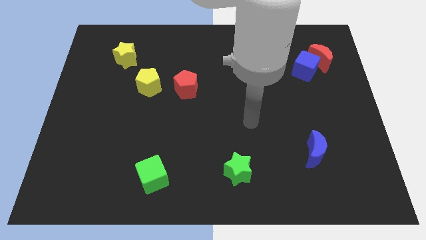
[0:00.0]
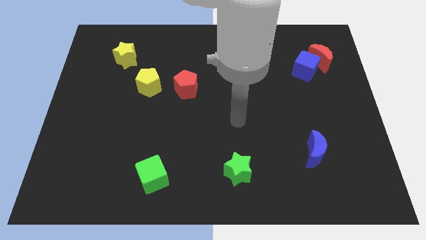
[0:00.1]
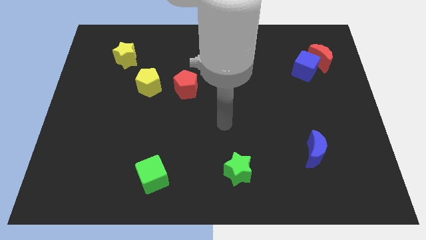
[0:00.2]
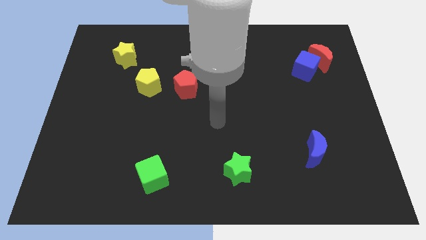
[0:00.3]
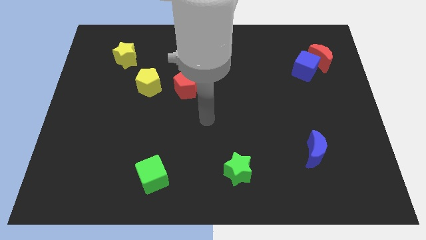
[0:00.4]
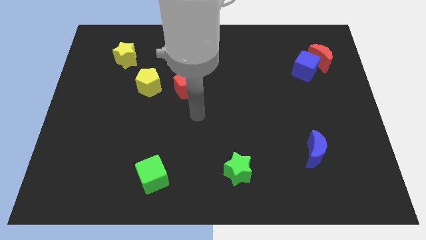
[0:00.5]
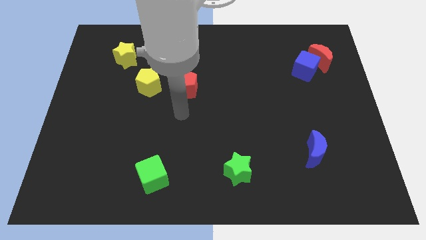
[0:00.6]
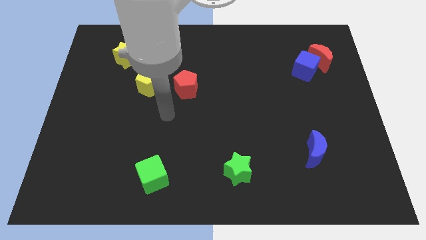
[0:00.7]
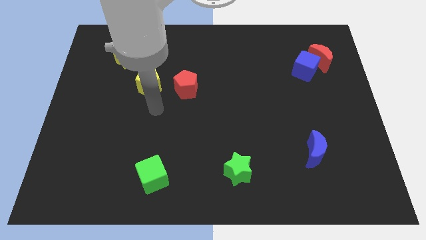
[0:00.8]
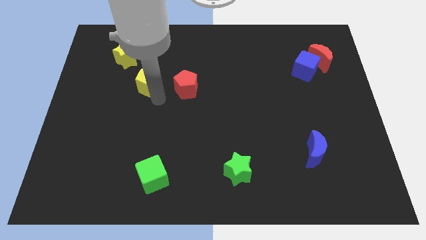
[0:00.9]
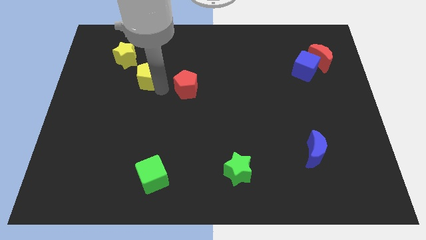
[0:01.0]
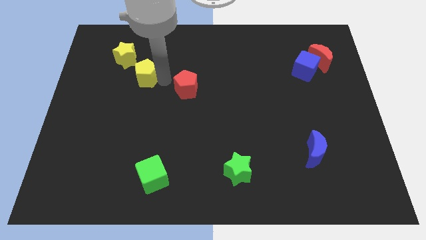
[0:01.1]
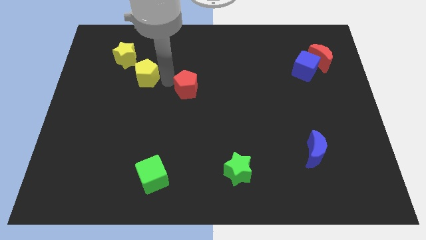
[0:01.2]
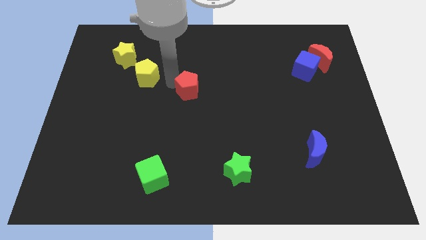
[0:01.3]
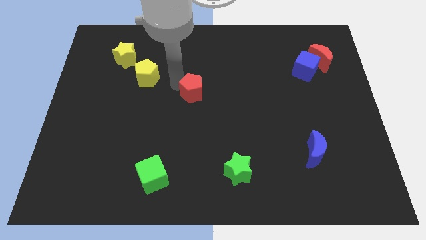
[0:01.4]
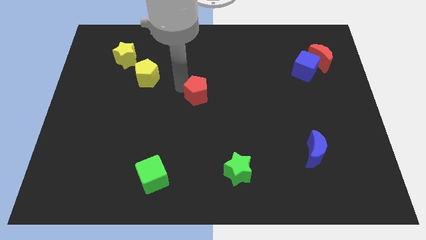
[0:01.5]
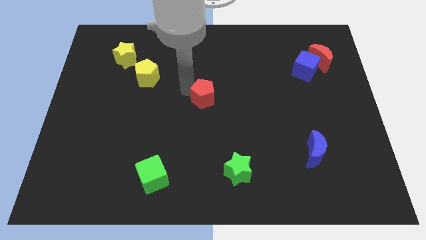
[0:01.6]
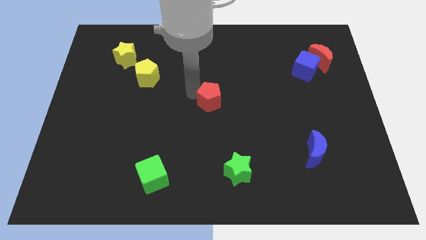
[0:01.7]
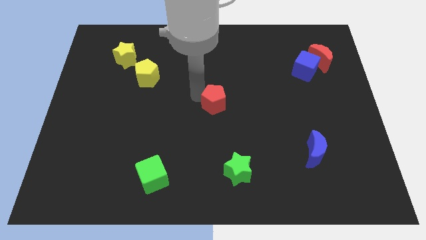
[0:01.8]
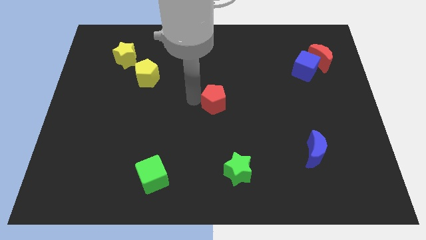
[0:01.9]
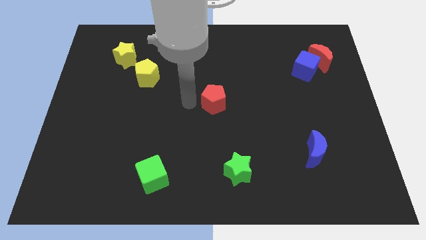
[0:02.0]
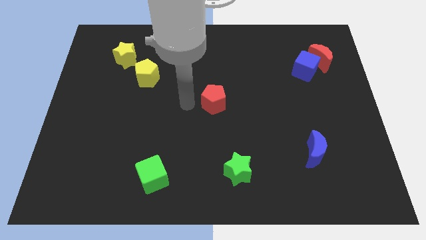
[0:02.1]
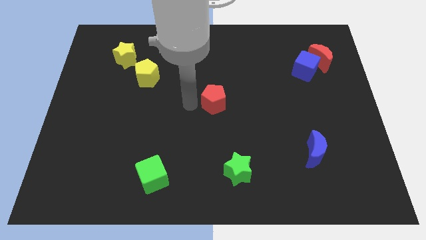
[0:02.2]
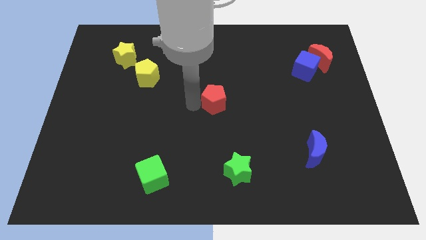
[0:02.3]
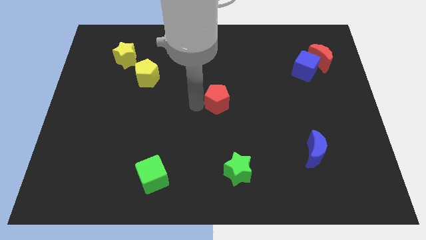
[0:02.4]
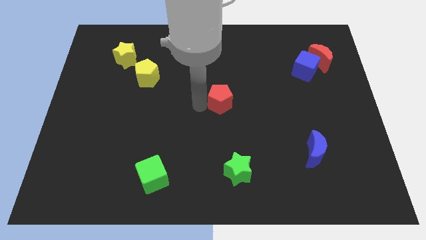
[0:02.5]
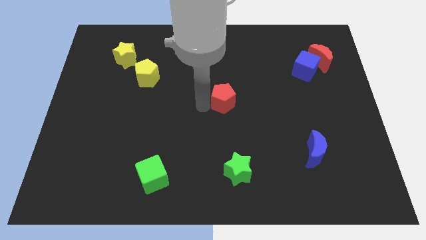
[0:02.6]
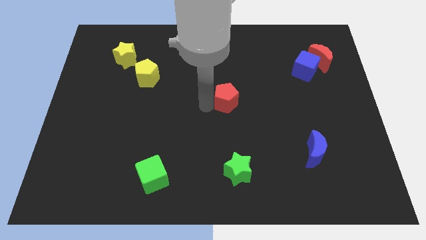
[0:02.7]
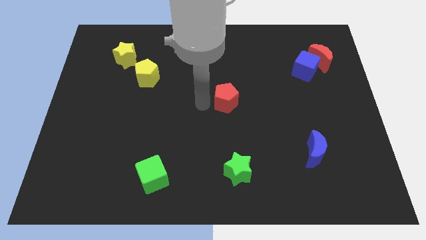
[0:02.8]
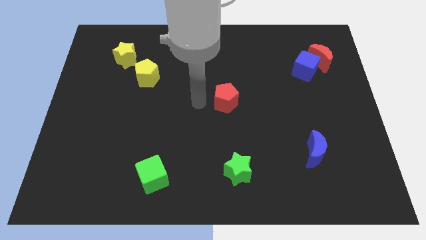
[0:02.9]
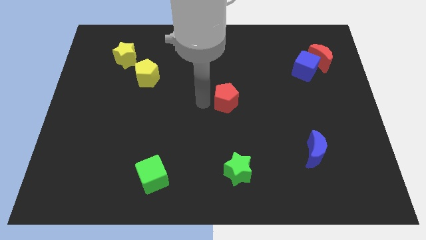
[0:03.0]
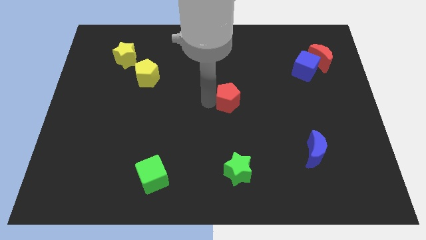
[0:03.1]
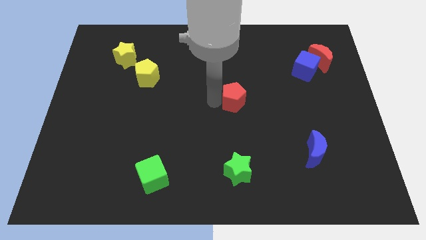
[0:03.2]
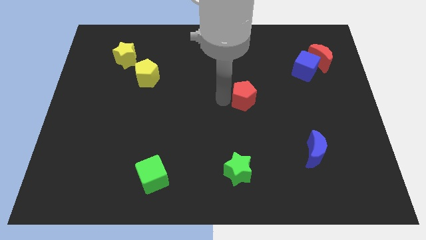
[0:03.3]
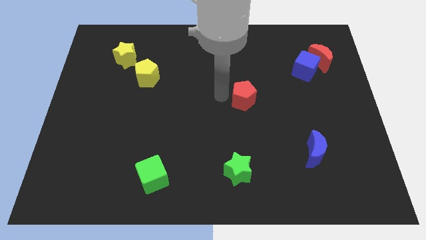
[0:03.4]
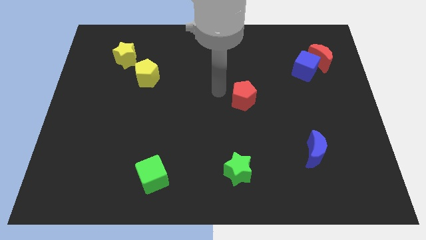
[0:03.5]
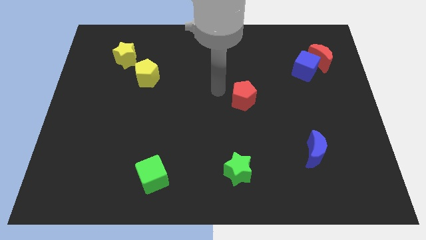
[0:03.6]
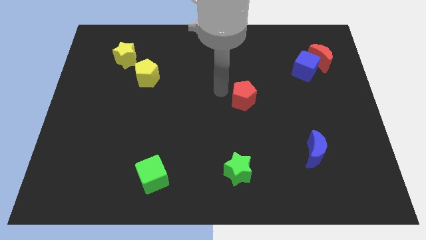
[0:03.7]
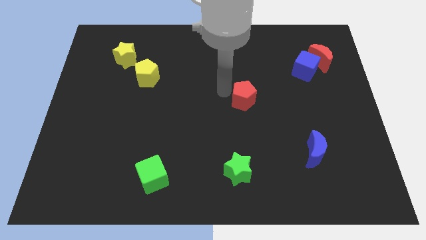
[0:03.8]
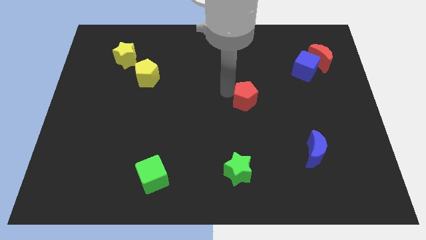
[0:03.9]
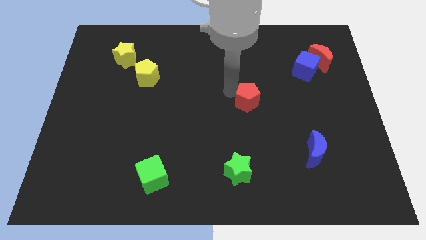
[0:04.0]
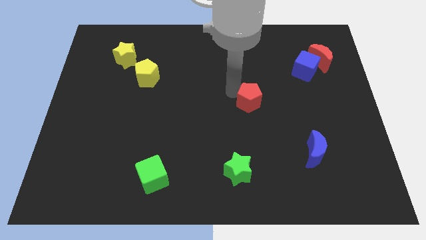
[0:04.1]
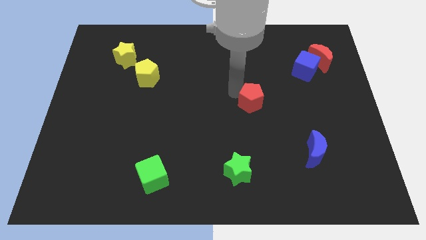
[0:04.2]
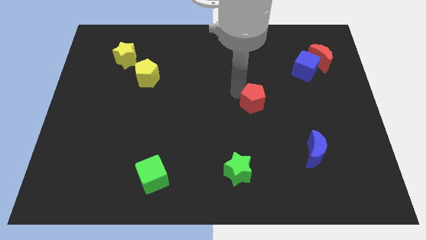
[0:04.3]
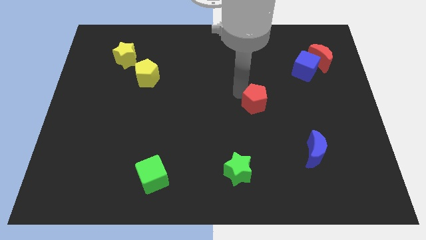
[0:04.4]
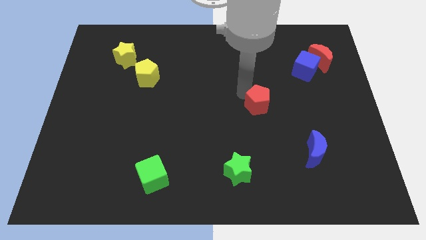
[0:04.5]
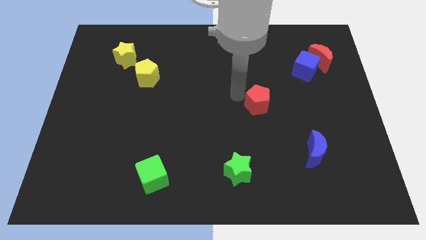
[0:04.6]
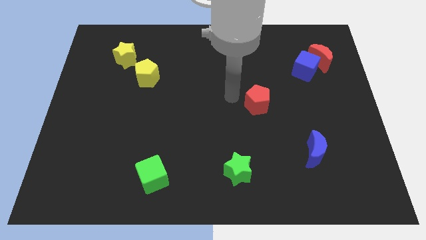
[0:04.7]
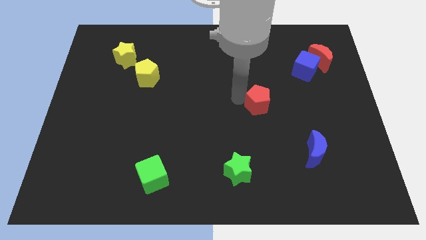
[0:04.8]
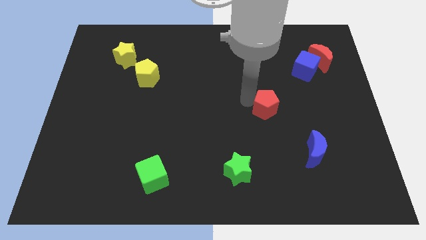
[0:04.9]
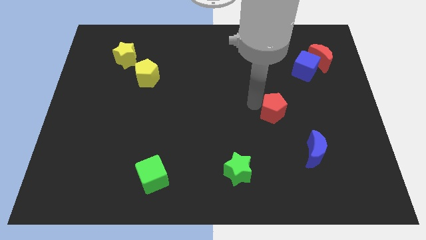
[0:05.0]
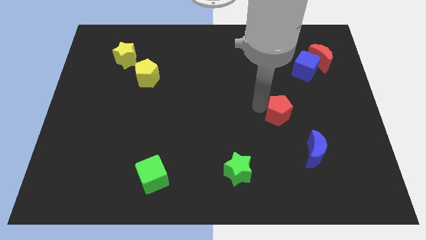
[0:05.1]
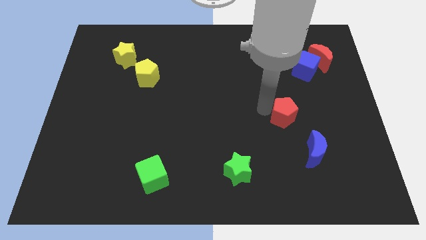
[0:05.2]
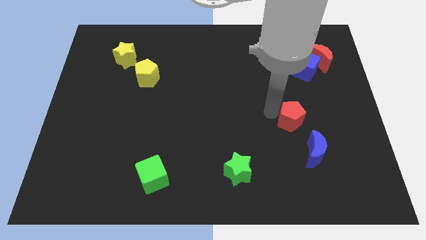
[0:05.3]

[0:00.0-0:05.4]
slide the red pentagon to the top of the blue moon

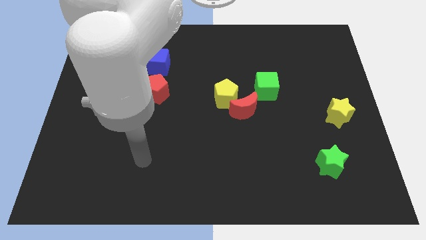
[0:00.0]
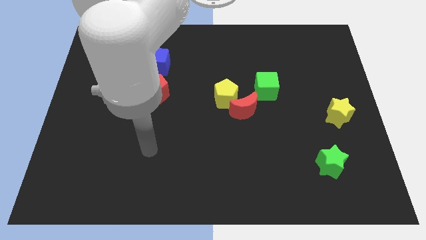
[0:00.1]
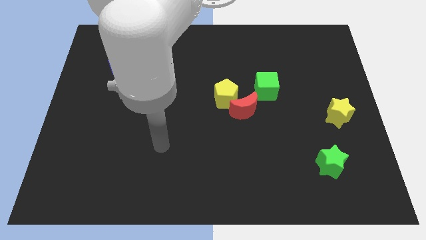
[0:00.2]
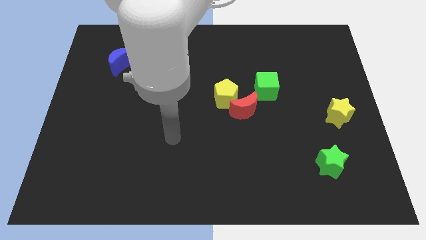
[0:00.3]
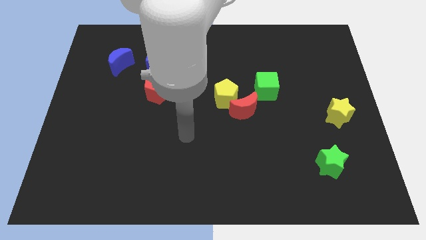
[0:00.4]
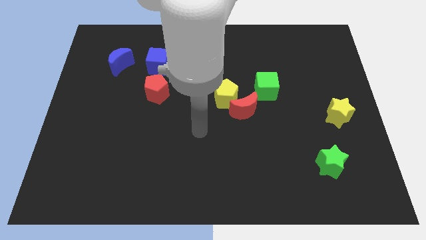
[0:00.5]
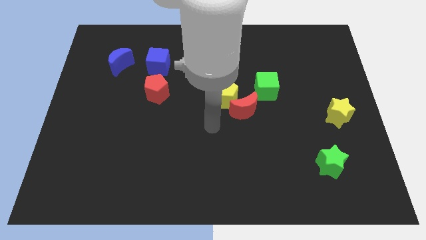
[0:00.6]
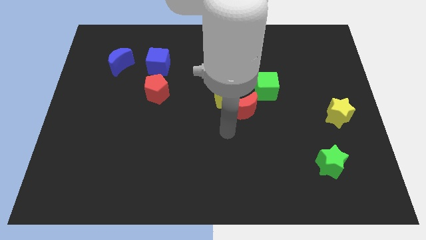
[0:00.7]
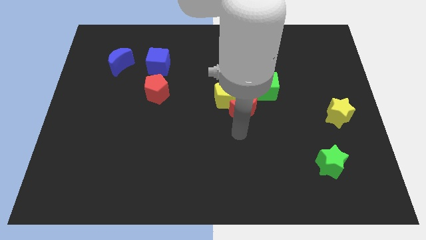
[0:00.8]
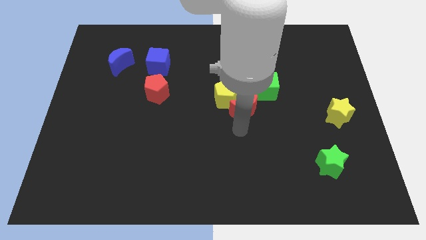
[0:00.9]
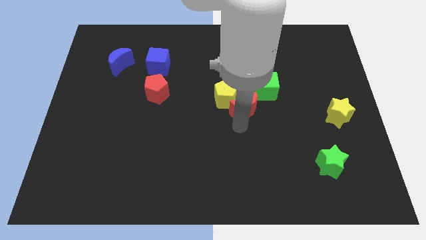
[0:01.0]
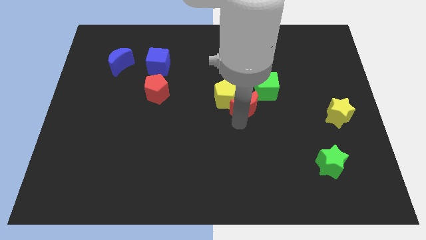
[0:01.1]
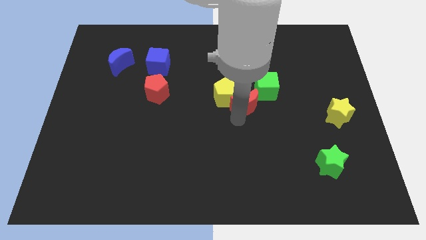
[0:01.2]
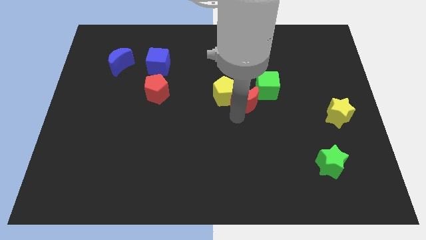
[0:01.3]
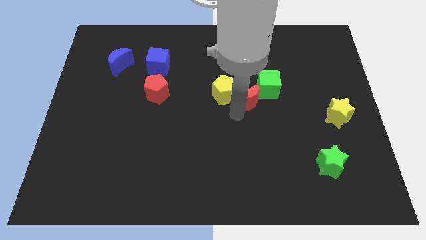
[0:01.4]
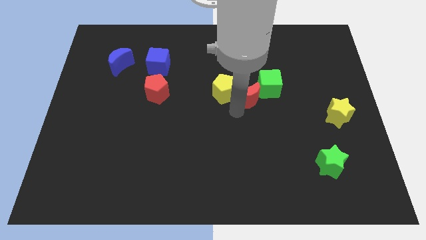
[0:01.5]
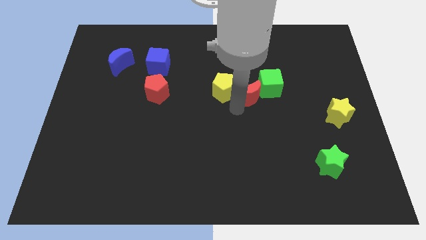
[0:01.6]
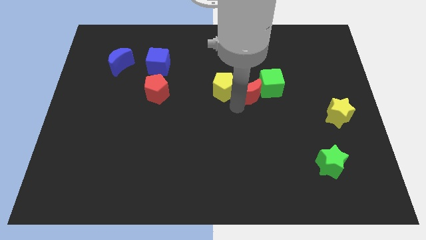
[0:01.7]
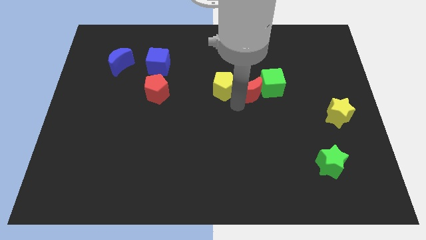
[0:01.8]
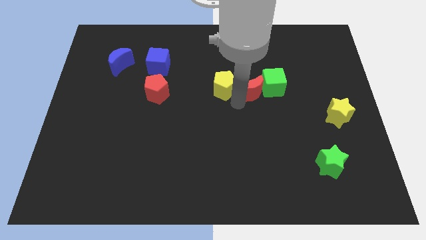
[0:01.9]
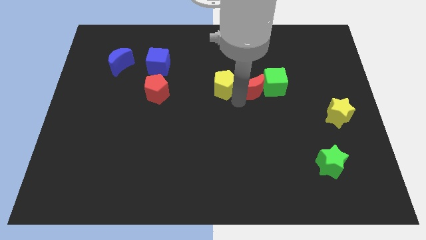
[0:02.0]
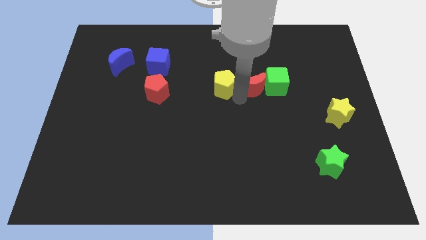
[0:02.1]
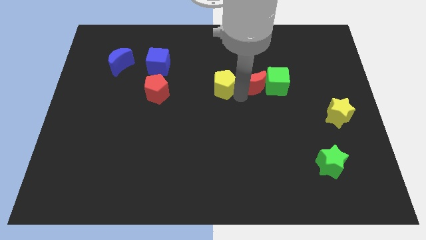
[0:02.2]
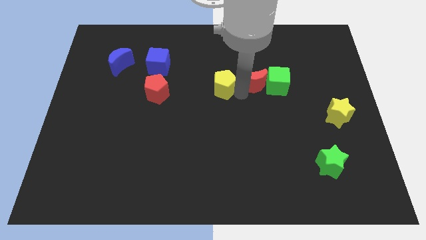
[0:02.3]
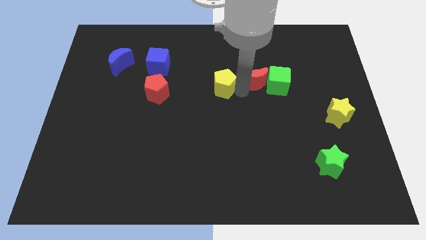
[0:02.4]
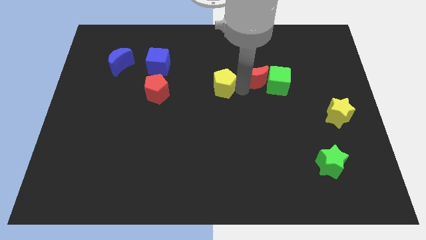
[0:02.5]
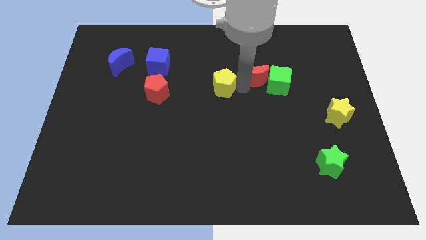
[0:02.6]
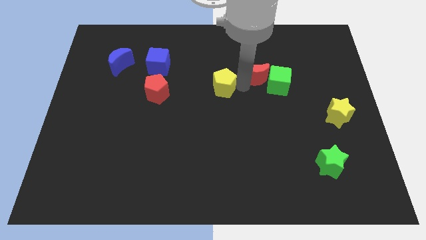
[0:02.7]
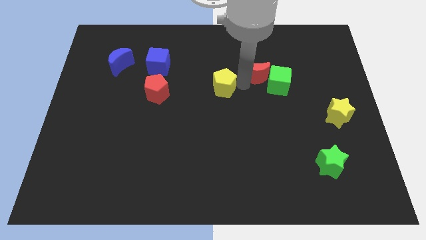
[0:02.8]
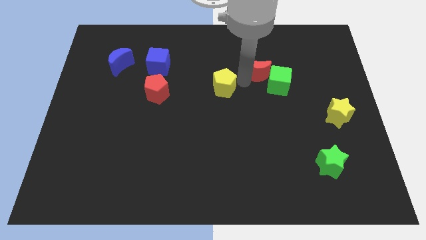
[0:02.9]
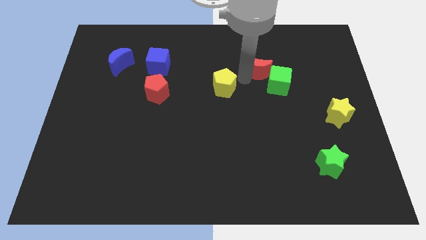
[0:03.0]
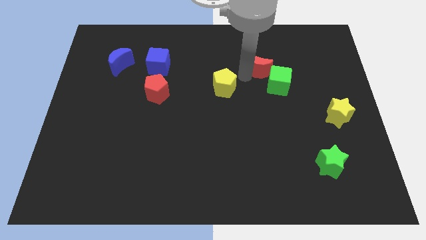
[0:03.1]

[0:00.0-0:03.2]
put the red moon above the green cube
